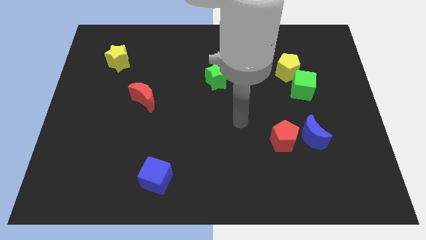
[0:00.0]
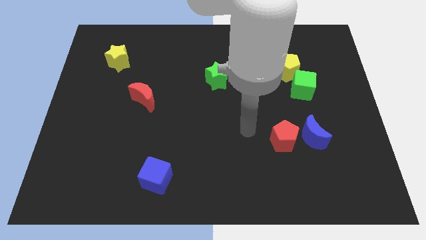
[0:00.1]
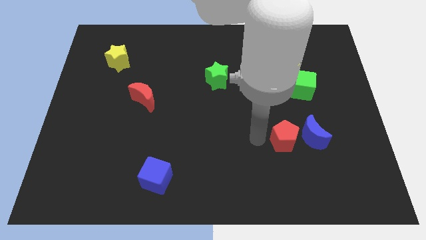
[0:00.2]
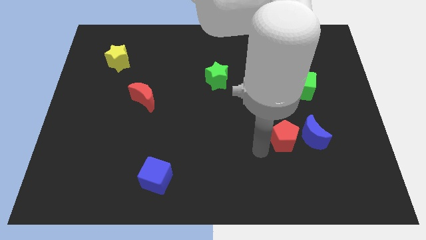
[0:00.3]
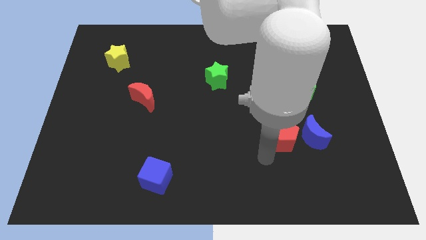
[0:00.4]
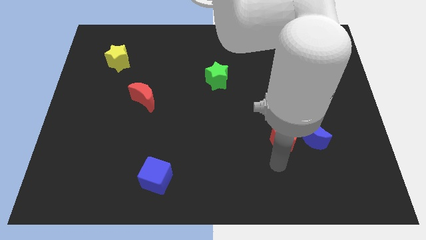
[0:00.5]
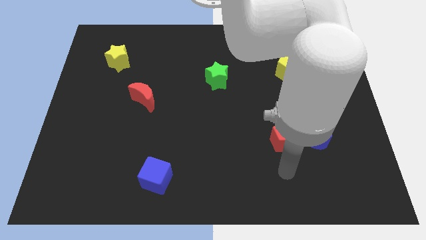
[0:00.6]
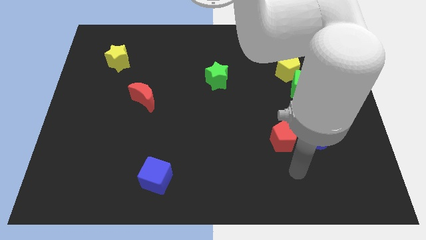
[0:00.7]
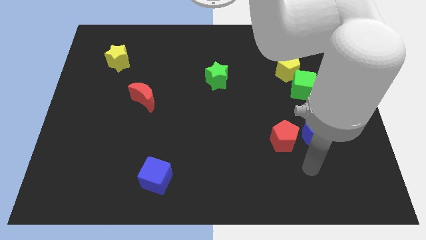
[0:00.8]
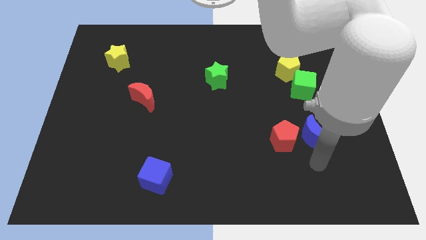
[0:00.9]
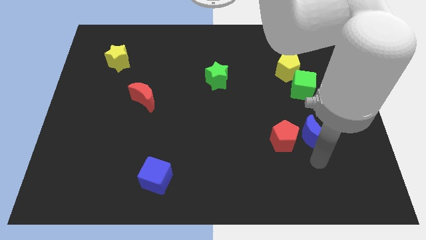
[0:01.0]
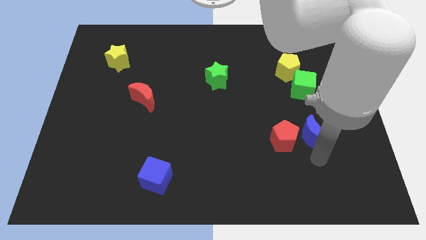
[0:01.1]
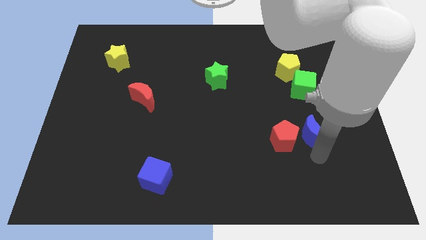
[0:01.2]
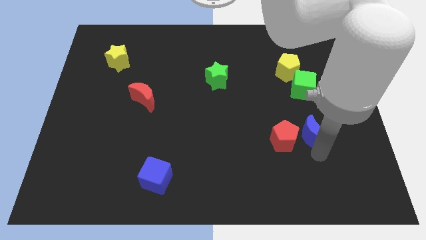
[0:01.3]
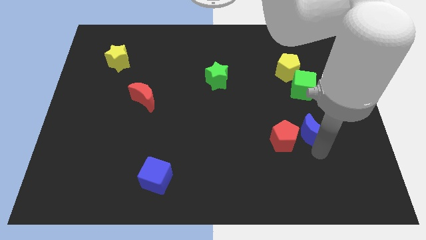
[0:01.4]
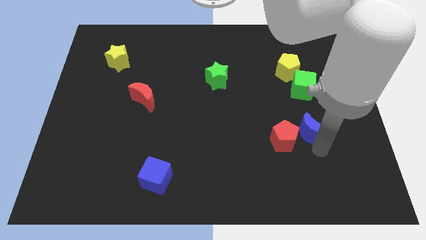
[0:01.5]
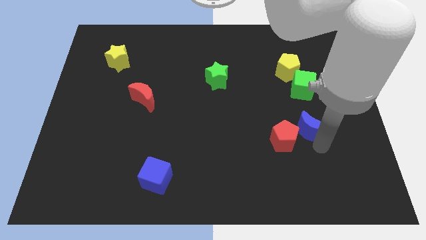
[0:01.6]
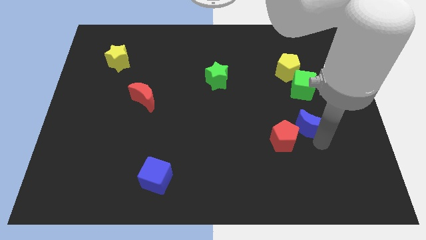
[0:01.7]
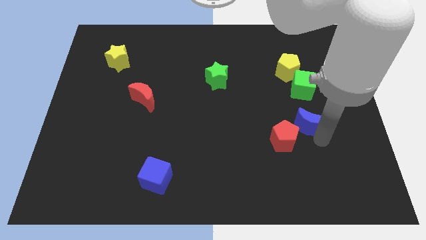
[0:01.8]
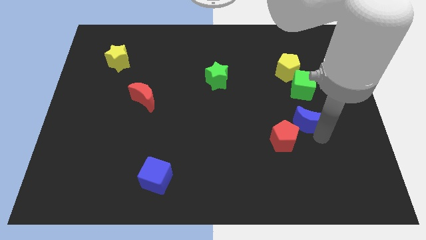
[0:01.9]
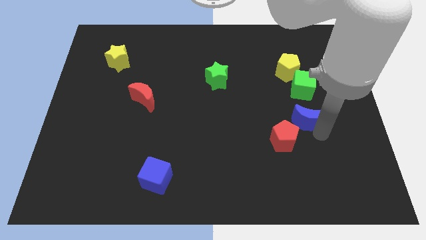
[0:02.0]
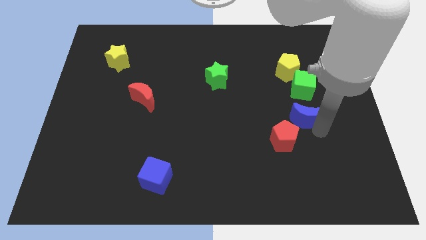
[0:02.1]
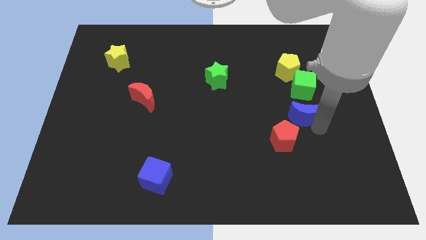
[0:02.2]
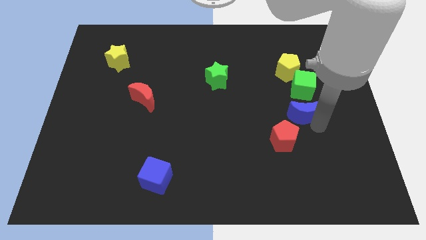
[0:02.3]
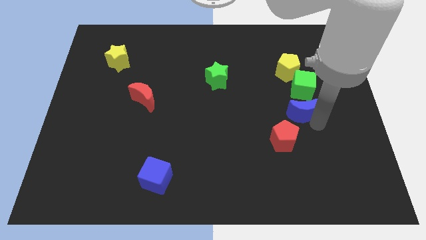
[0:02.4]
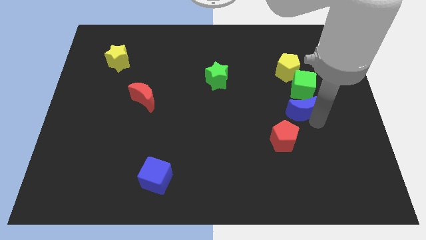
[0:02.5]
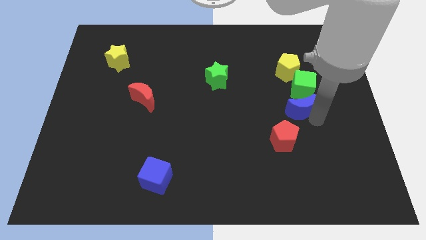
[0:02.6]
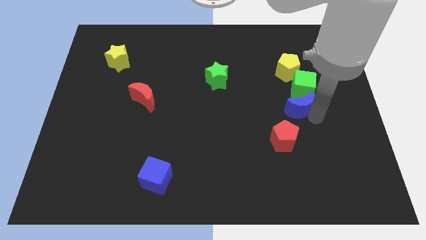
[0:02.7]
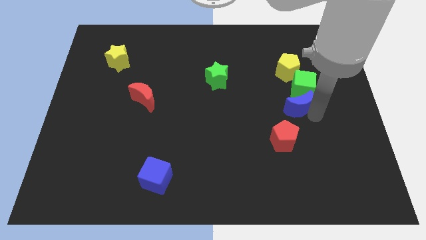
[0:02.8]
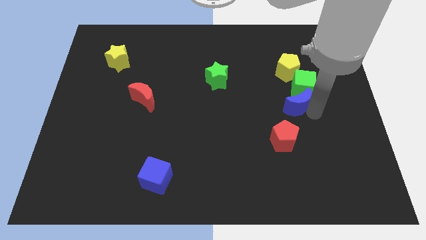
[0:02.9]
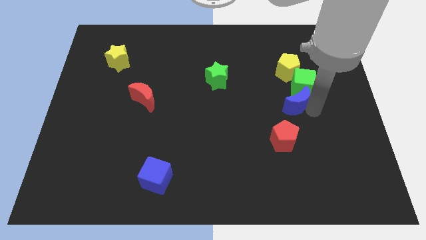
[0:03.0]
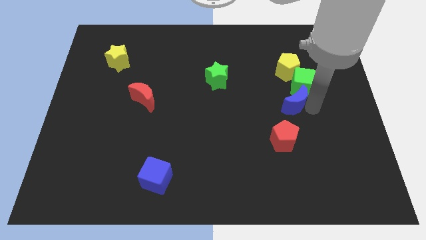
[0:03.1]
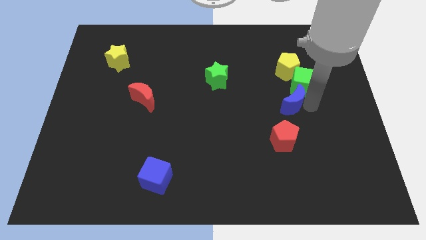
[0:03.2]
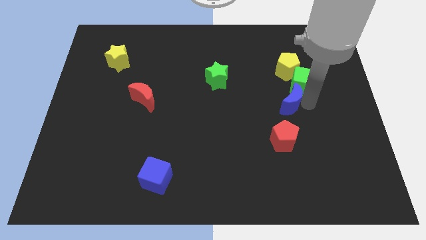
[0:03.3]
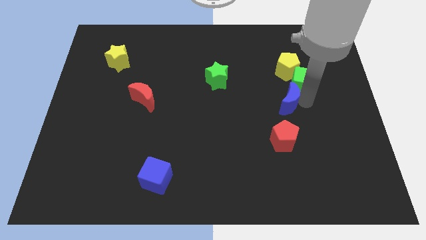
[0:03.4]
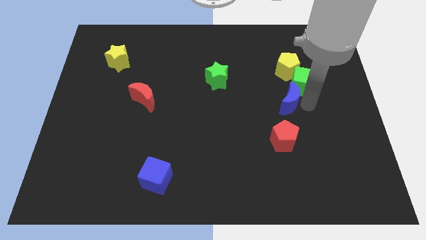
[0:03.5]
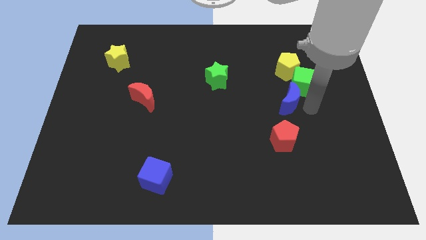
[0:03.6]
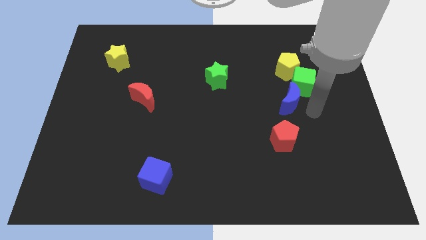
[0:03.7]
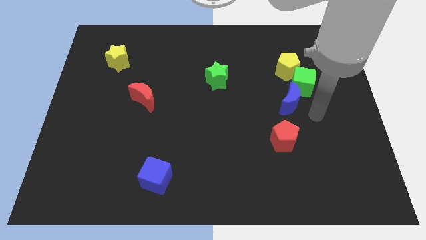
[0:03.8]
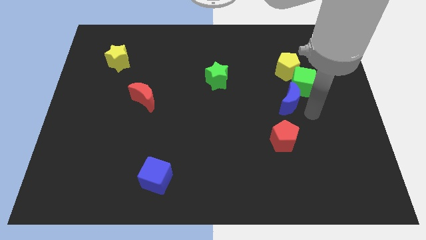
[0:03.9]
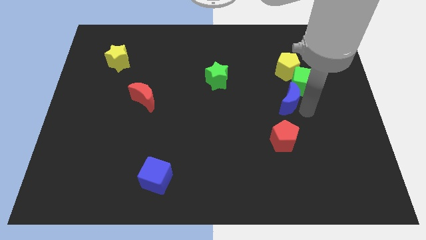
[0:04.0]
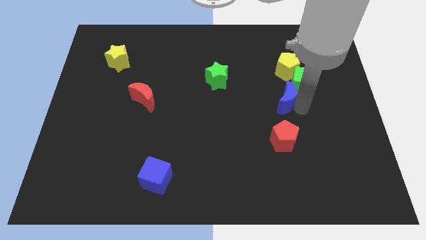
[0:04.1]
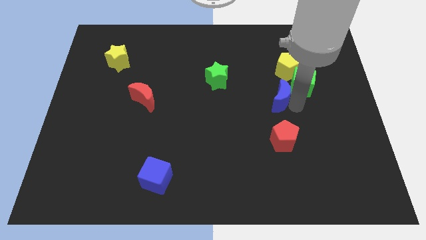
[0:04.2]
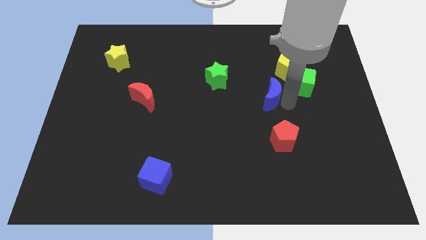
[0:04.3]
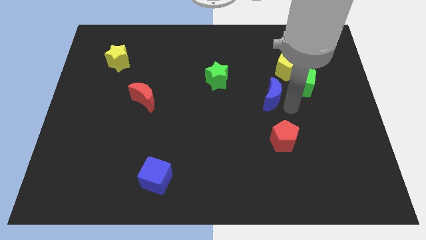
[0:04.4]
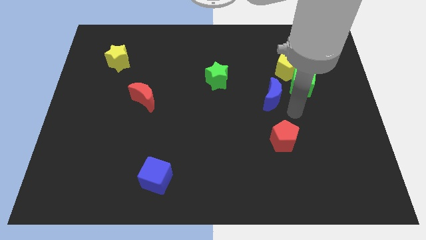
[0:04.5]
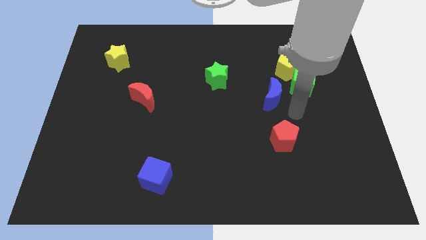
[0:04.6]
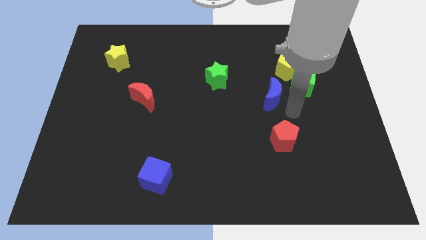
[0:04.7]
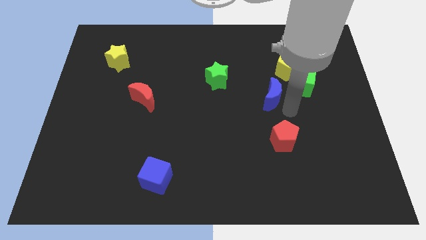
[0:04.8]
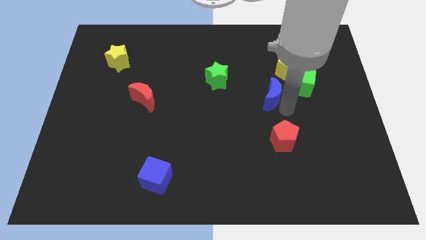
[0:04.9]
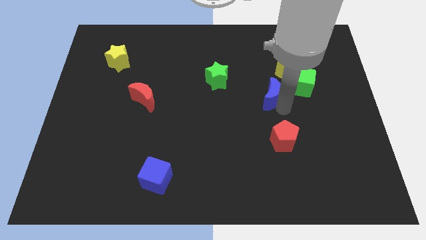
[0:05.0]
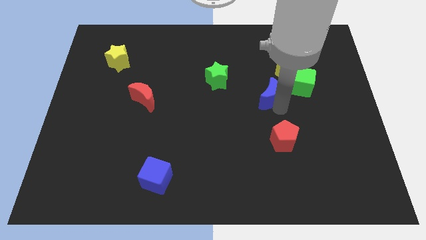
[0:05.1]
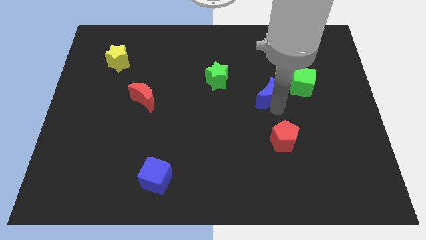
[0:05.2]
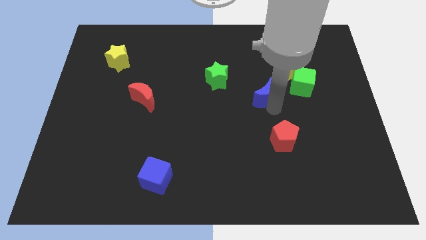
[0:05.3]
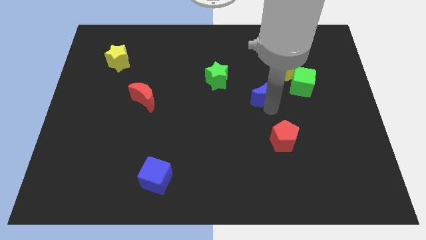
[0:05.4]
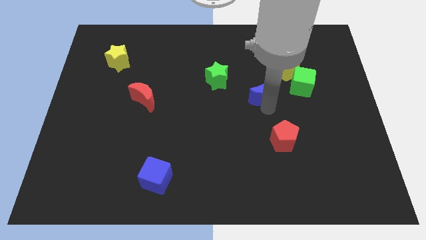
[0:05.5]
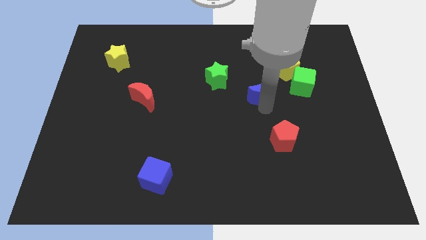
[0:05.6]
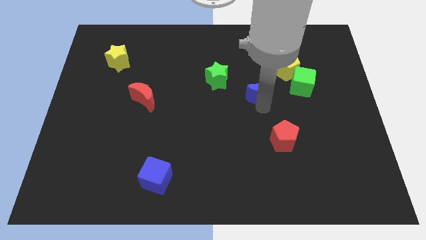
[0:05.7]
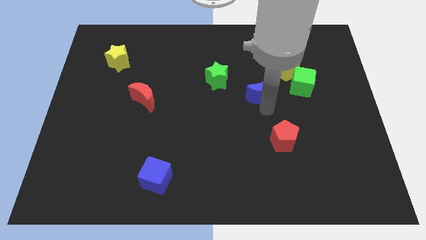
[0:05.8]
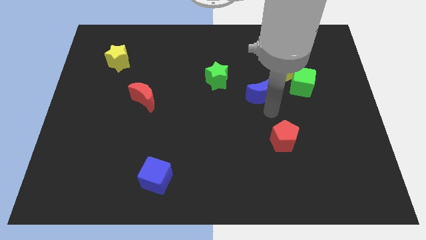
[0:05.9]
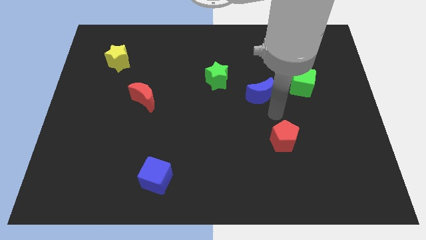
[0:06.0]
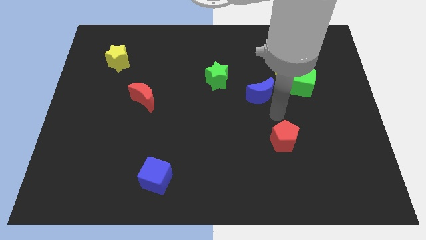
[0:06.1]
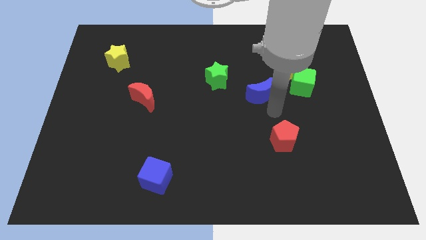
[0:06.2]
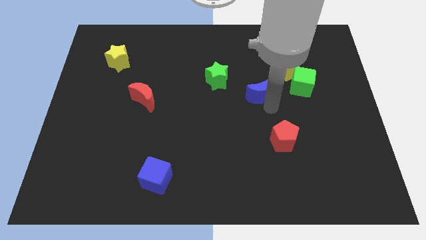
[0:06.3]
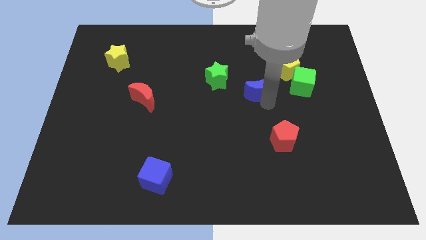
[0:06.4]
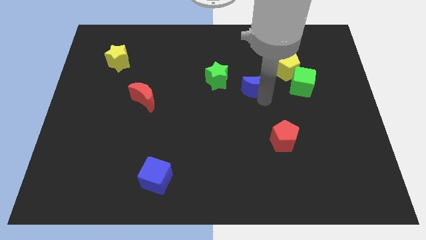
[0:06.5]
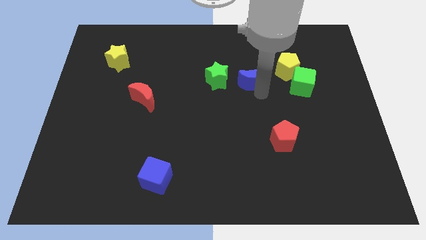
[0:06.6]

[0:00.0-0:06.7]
push the blue moon upwards and then to the left

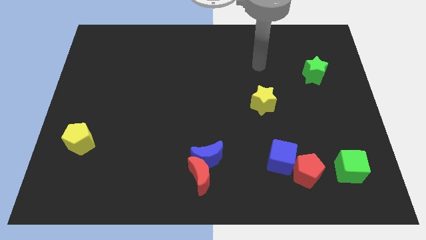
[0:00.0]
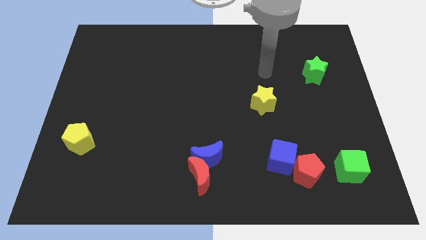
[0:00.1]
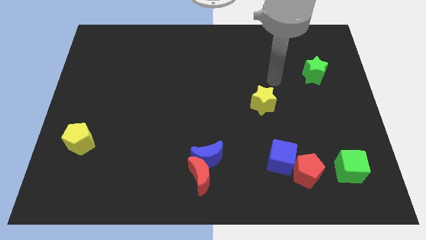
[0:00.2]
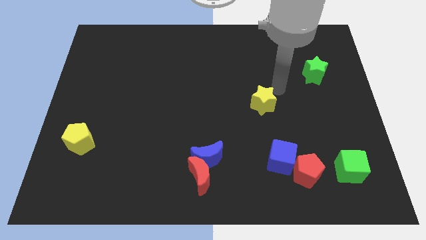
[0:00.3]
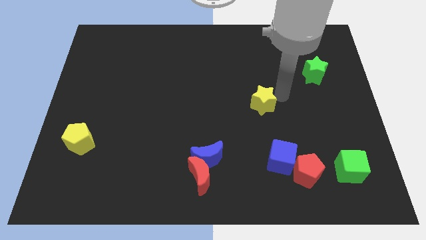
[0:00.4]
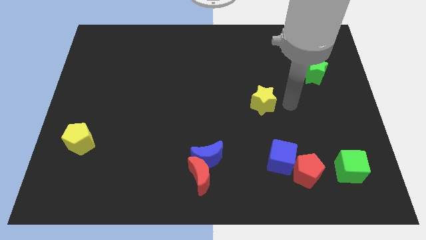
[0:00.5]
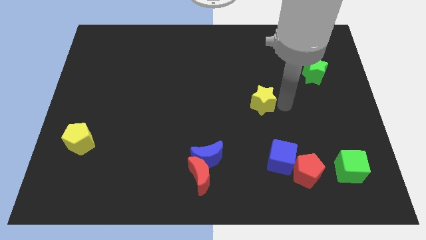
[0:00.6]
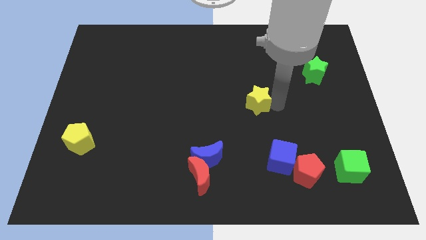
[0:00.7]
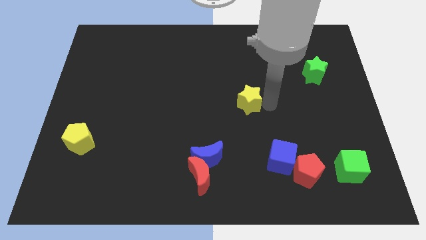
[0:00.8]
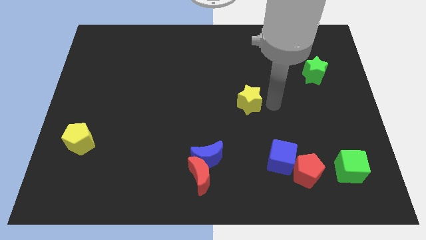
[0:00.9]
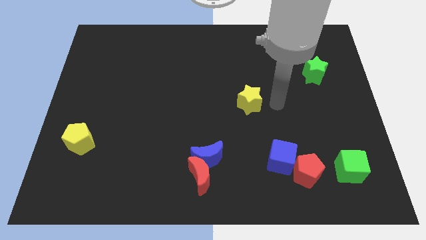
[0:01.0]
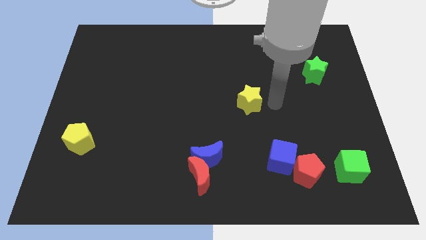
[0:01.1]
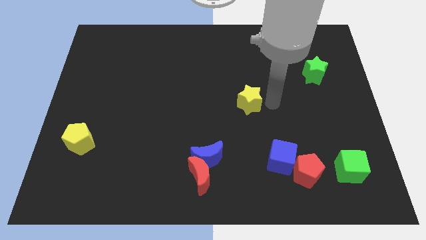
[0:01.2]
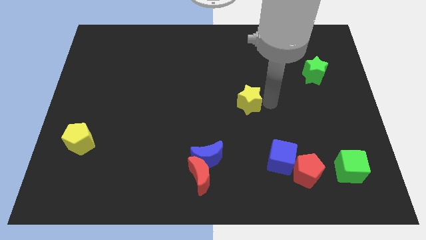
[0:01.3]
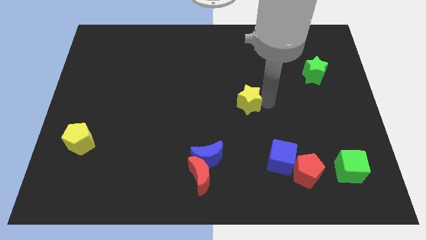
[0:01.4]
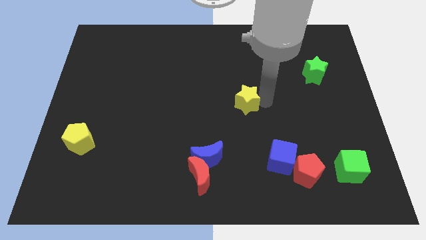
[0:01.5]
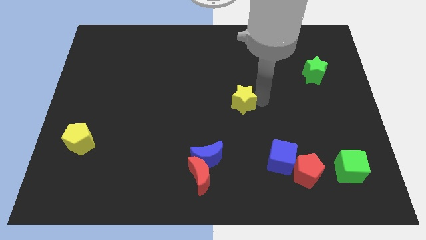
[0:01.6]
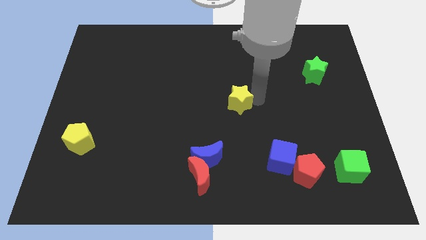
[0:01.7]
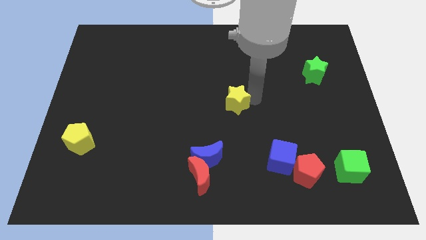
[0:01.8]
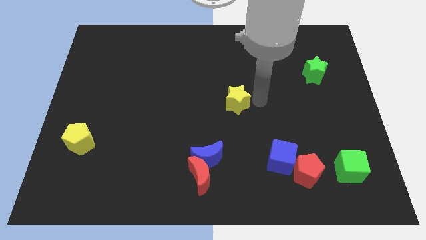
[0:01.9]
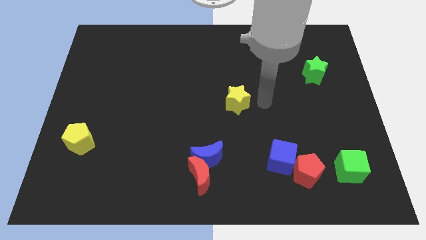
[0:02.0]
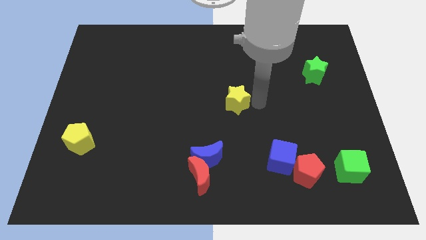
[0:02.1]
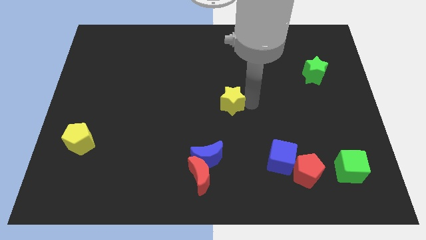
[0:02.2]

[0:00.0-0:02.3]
slightly move the yellow star to the left
